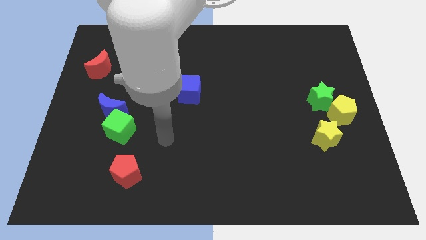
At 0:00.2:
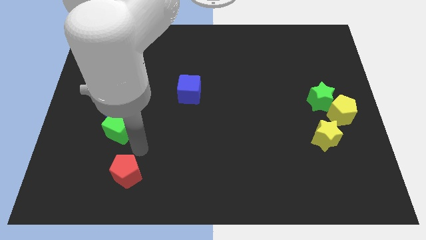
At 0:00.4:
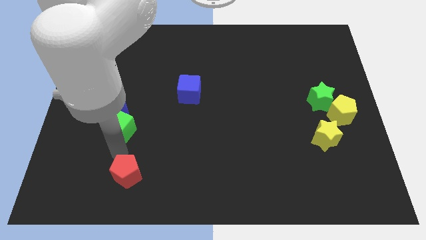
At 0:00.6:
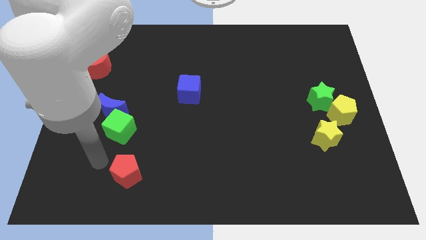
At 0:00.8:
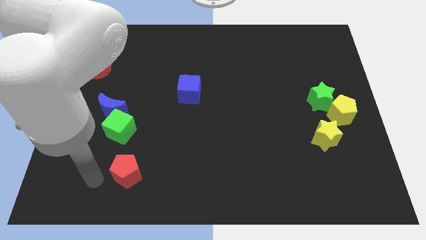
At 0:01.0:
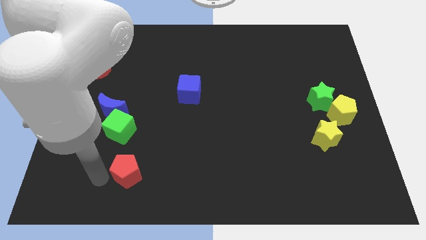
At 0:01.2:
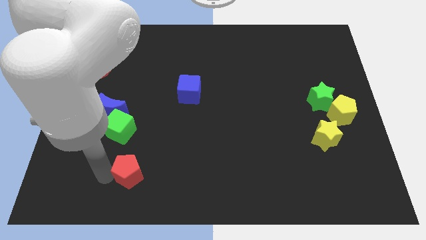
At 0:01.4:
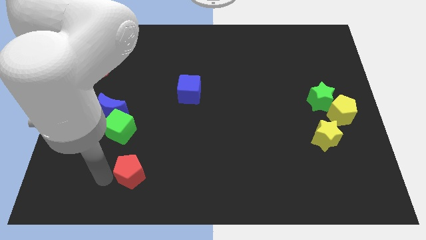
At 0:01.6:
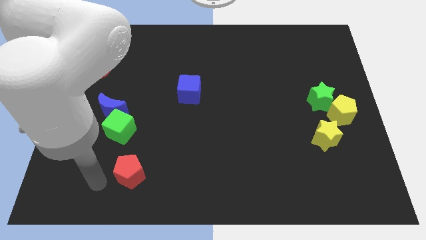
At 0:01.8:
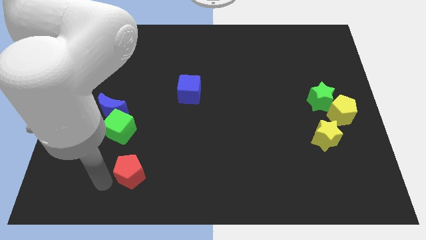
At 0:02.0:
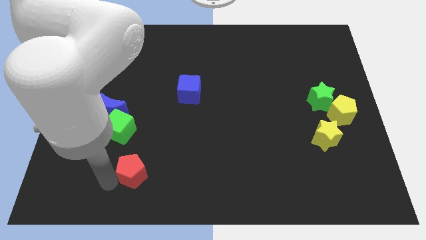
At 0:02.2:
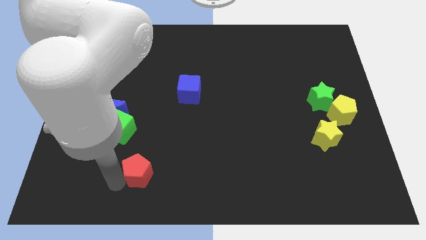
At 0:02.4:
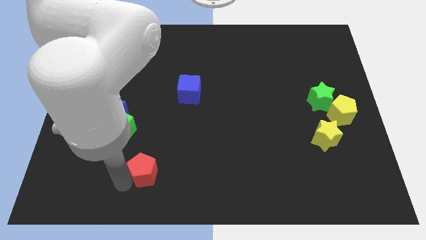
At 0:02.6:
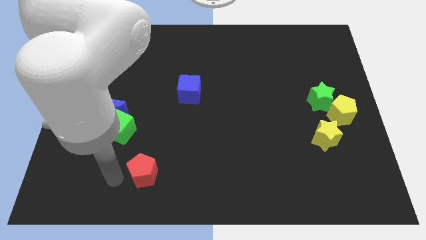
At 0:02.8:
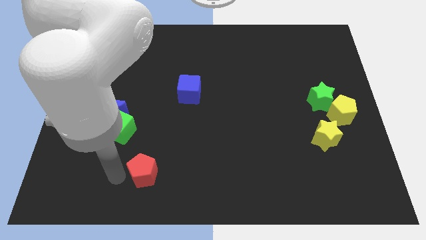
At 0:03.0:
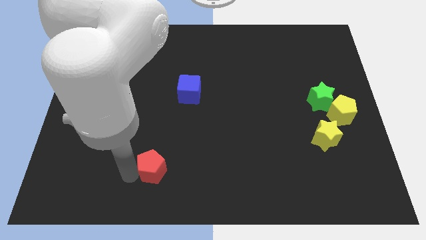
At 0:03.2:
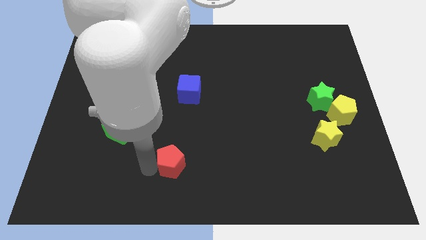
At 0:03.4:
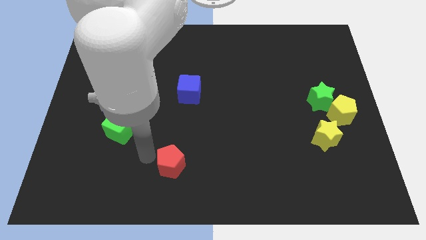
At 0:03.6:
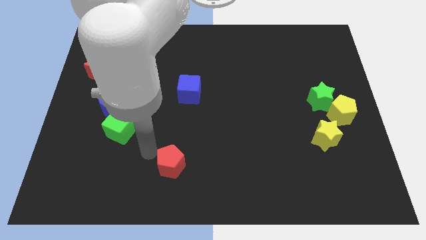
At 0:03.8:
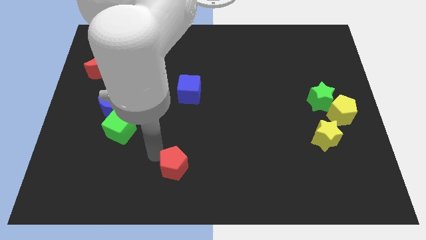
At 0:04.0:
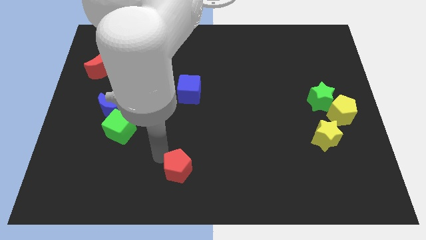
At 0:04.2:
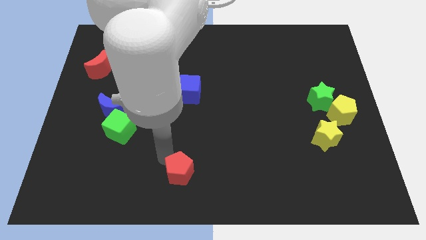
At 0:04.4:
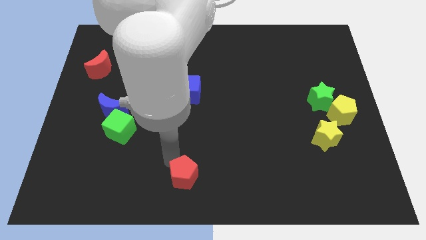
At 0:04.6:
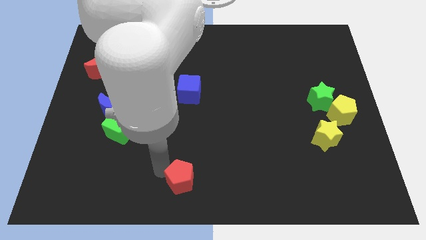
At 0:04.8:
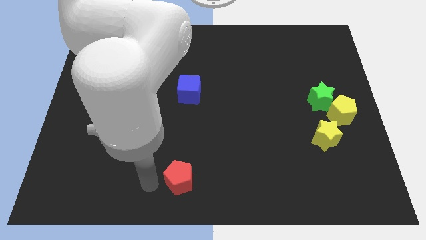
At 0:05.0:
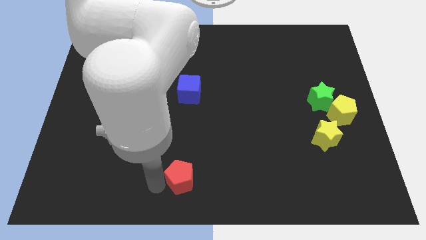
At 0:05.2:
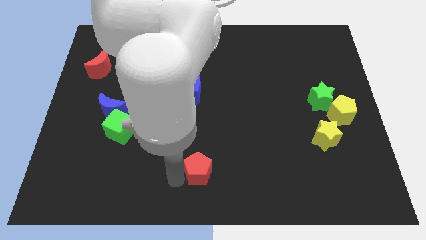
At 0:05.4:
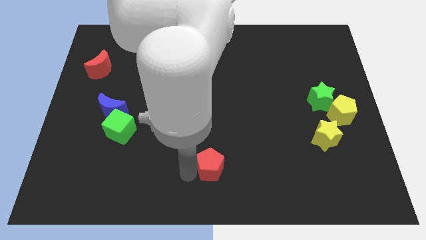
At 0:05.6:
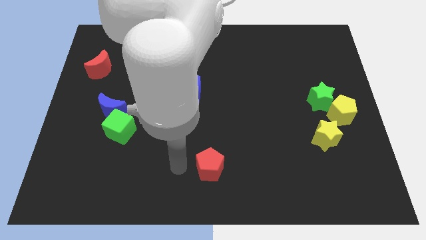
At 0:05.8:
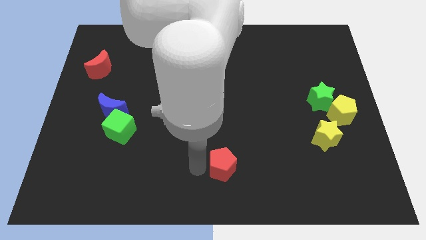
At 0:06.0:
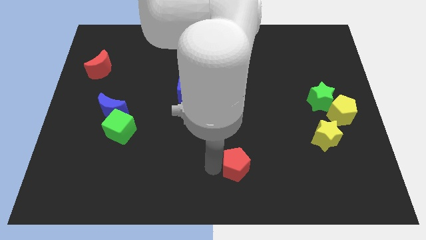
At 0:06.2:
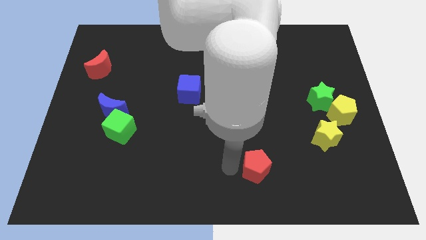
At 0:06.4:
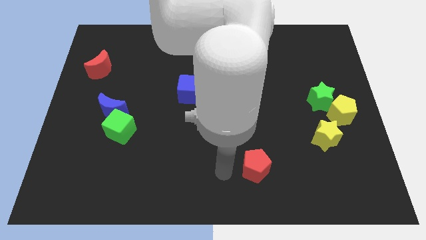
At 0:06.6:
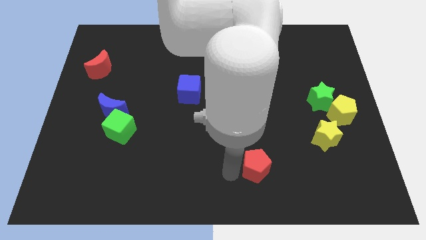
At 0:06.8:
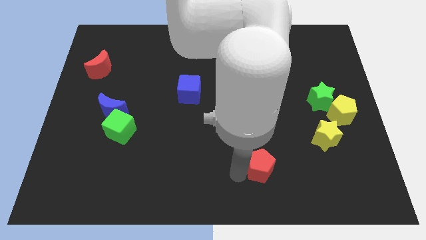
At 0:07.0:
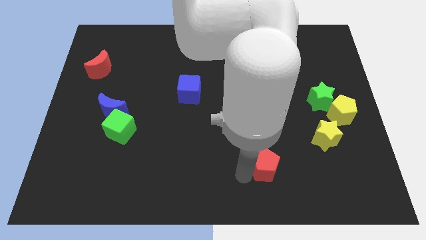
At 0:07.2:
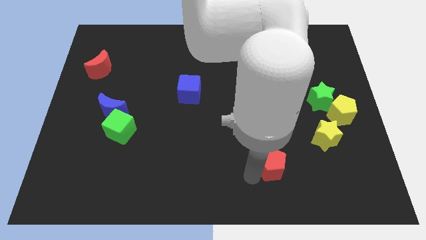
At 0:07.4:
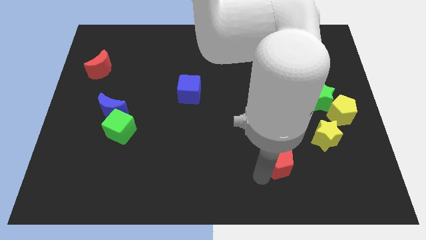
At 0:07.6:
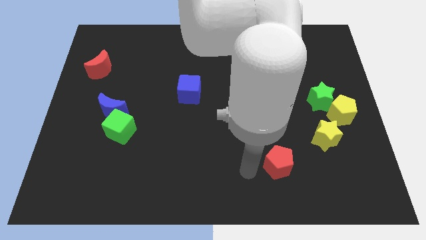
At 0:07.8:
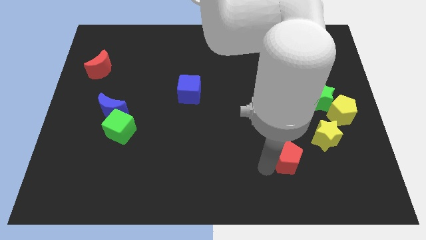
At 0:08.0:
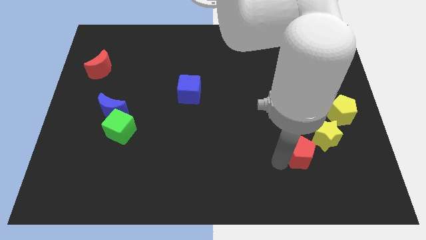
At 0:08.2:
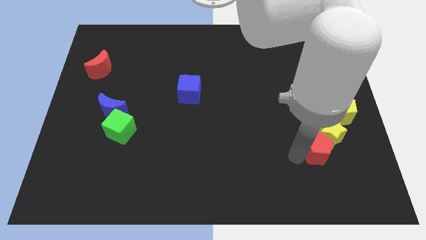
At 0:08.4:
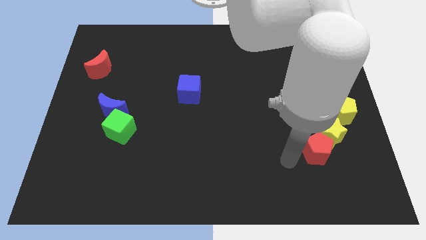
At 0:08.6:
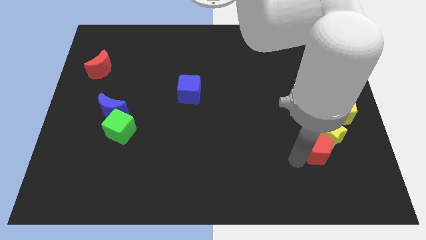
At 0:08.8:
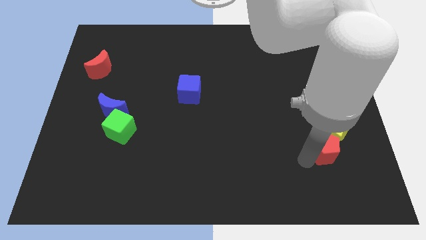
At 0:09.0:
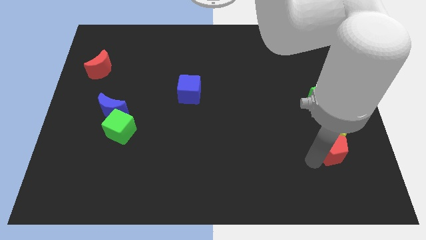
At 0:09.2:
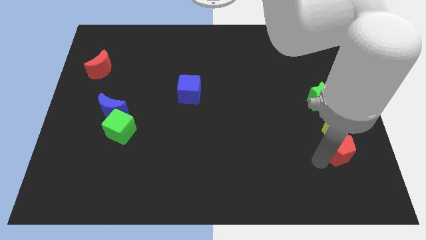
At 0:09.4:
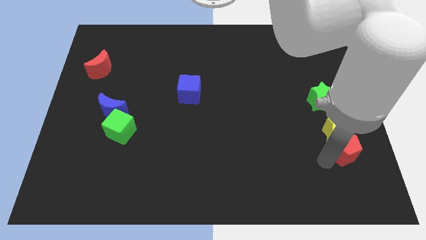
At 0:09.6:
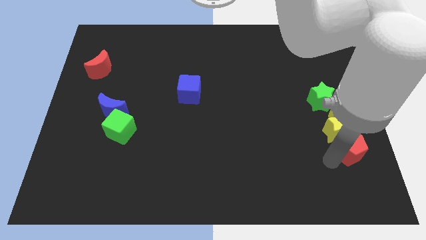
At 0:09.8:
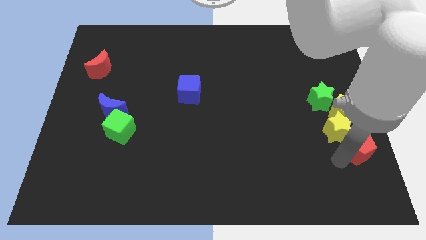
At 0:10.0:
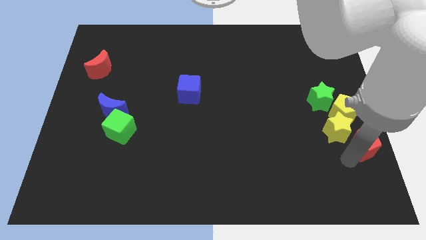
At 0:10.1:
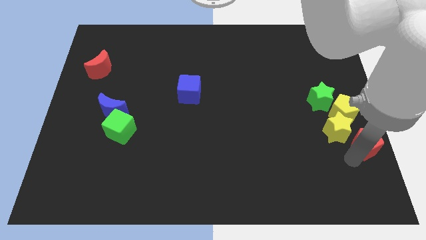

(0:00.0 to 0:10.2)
push the red pentagon to the center right

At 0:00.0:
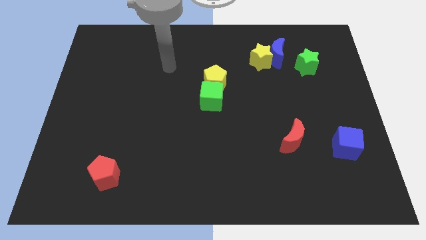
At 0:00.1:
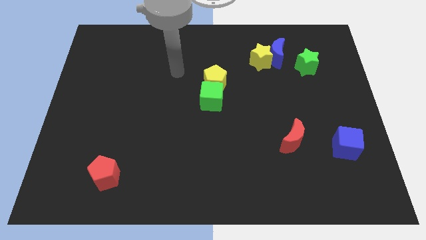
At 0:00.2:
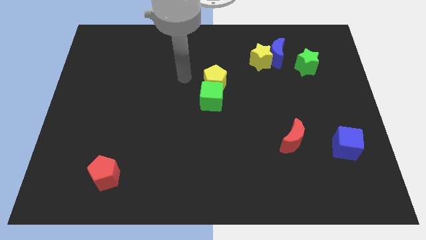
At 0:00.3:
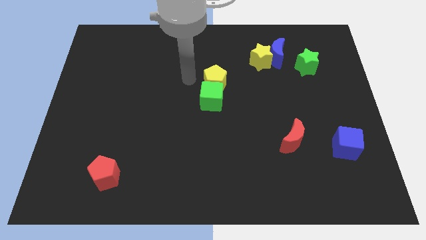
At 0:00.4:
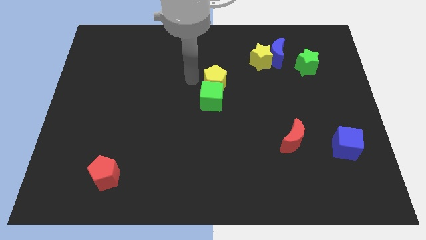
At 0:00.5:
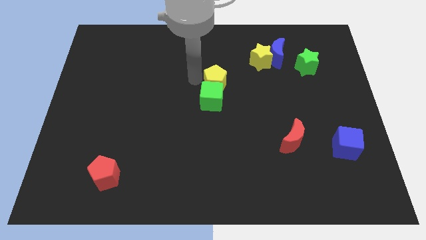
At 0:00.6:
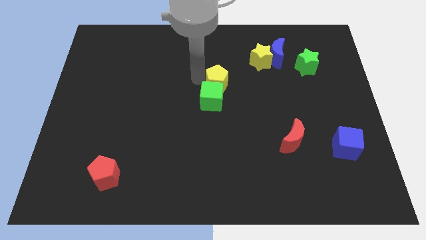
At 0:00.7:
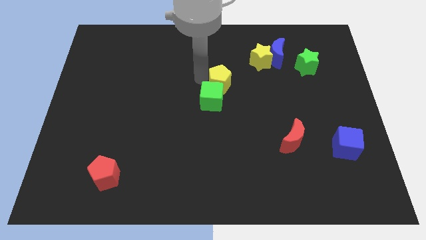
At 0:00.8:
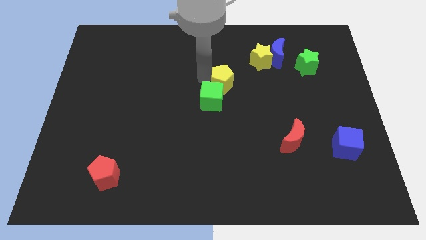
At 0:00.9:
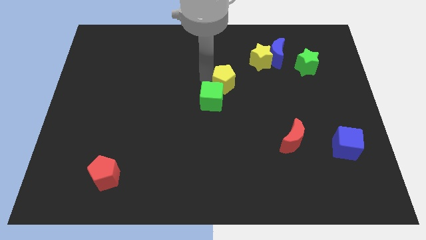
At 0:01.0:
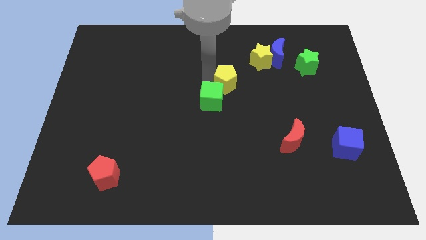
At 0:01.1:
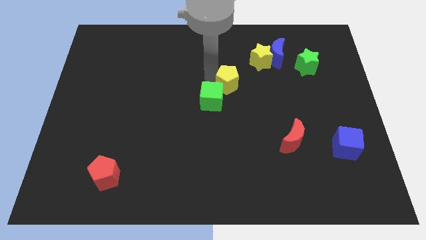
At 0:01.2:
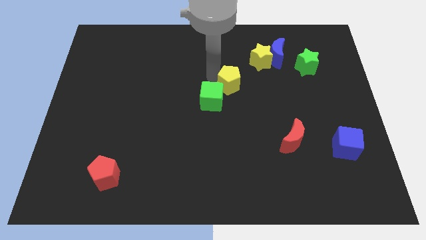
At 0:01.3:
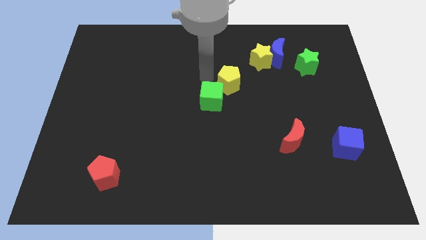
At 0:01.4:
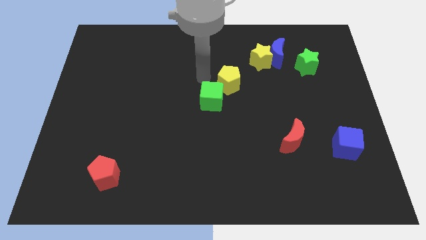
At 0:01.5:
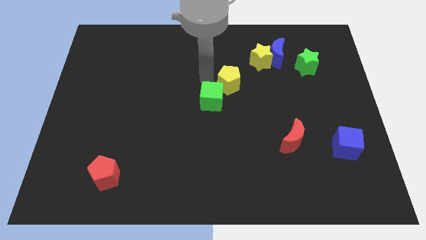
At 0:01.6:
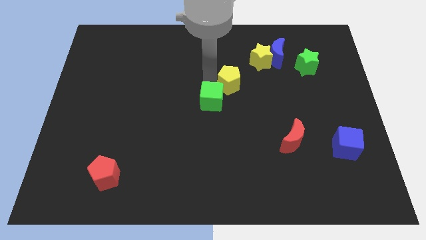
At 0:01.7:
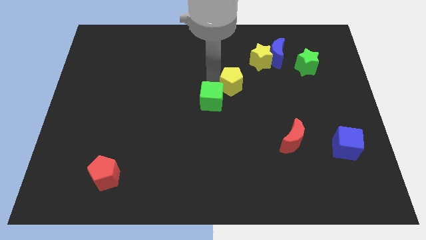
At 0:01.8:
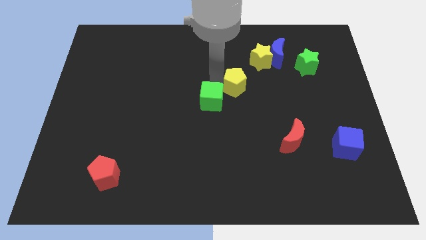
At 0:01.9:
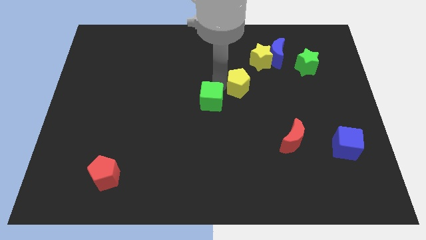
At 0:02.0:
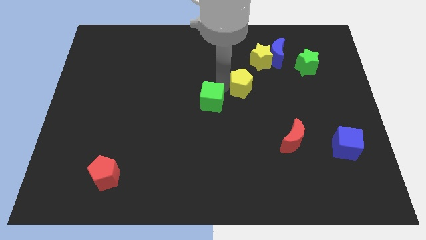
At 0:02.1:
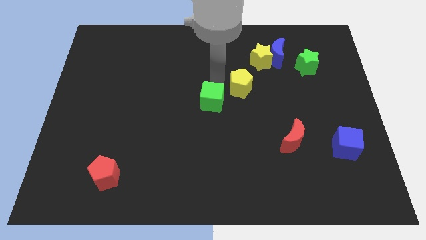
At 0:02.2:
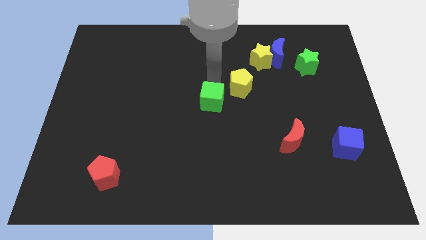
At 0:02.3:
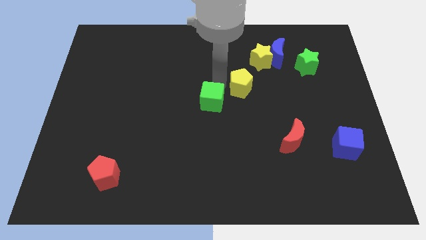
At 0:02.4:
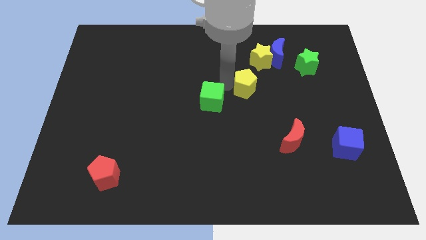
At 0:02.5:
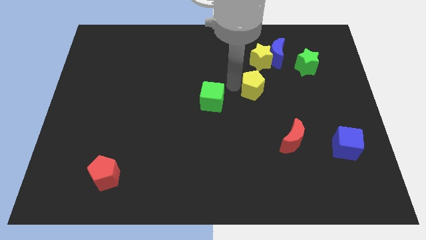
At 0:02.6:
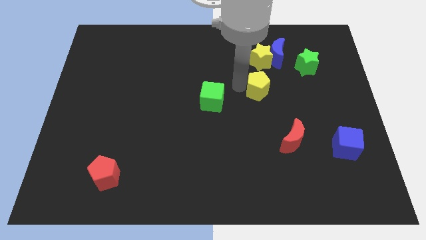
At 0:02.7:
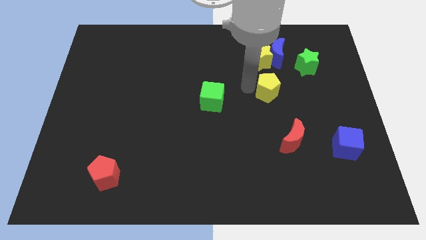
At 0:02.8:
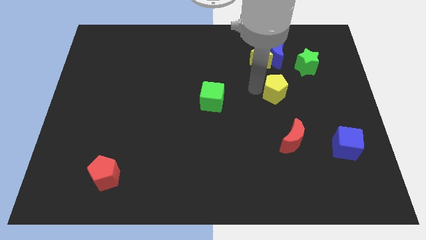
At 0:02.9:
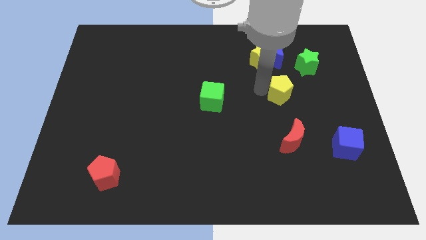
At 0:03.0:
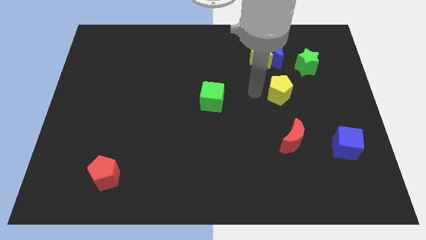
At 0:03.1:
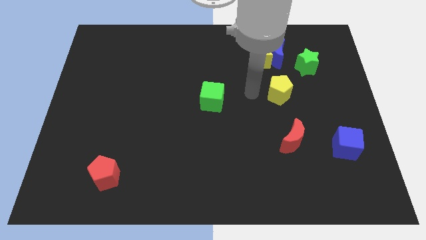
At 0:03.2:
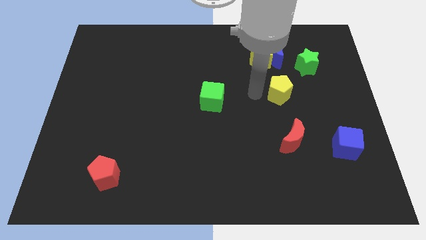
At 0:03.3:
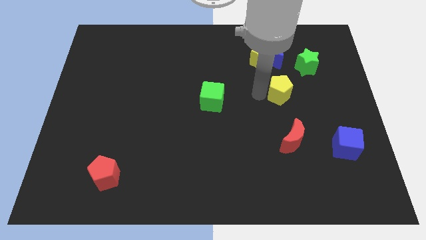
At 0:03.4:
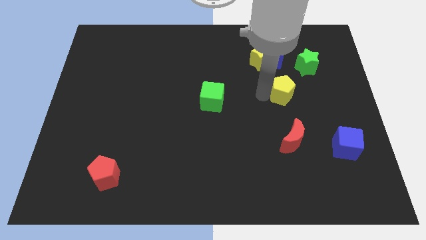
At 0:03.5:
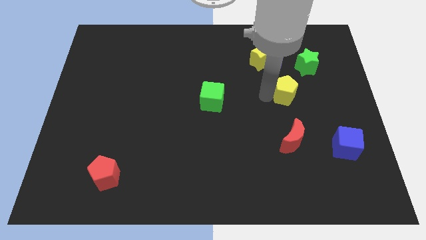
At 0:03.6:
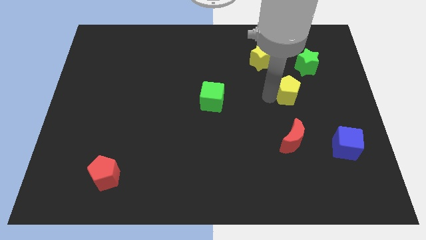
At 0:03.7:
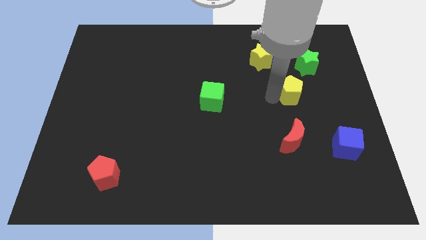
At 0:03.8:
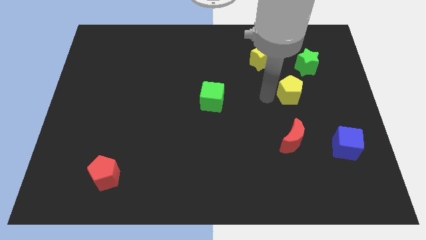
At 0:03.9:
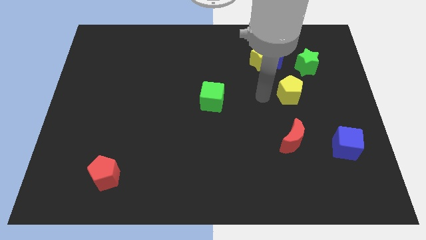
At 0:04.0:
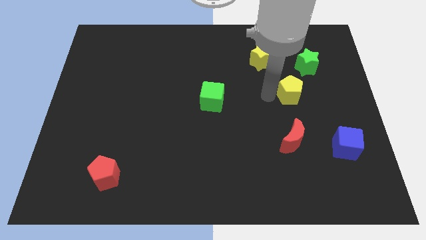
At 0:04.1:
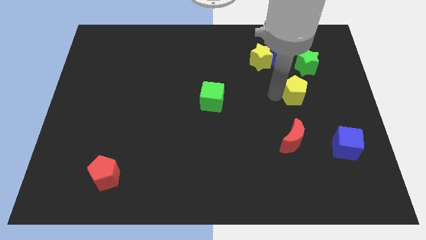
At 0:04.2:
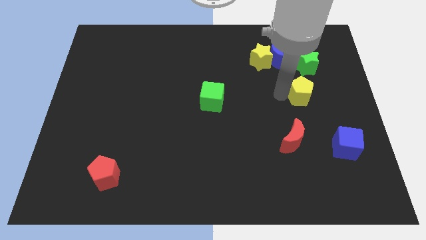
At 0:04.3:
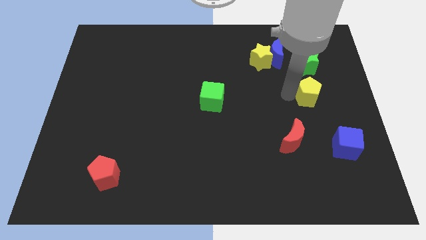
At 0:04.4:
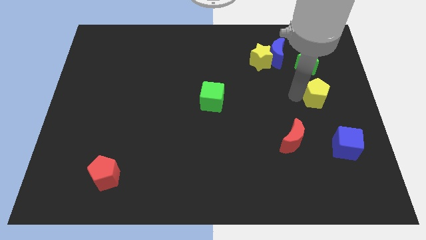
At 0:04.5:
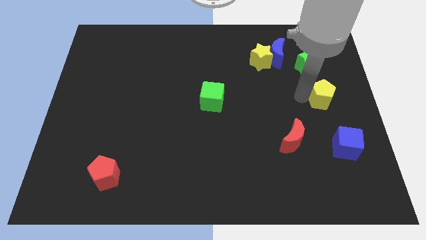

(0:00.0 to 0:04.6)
slide the yellow pentagon to the center right
